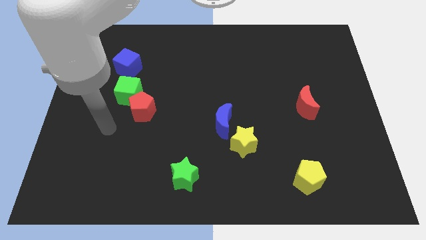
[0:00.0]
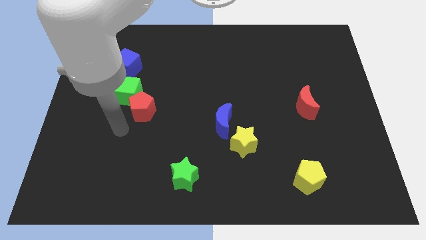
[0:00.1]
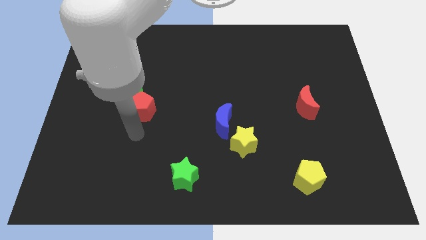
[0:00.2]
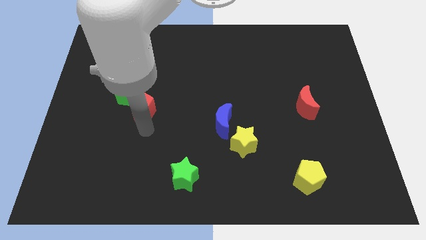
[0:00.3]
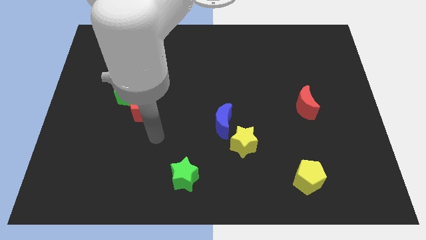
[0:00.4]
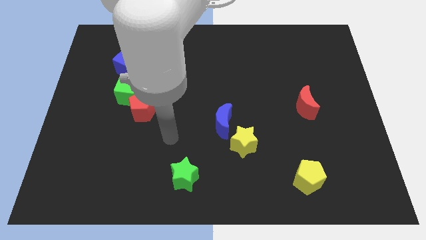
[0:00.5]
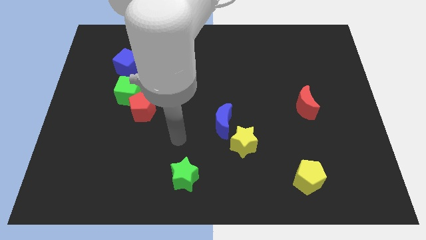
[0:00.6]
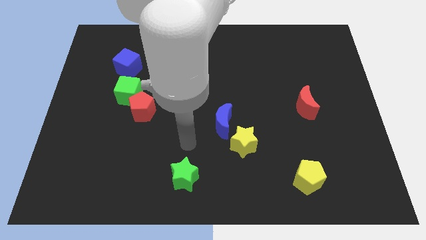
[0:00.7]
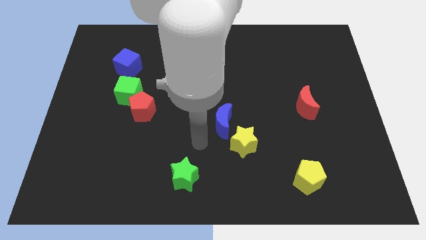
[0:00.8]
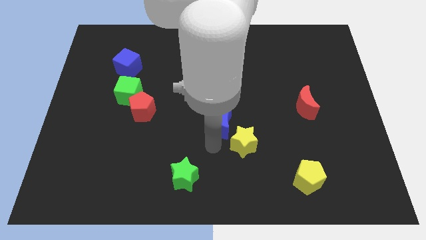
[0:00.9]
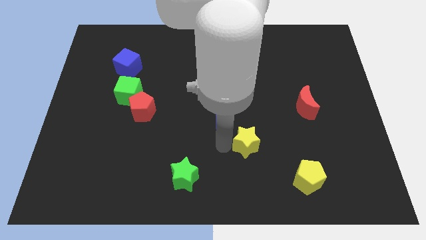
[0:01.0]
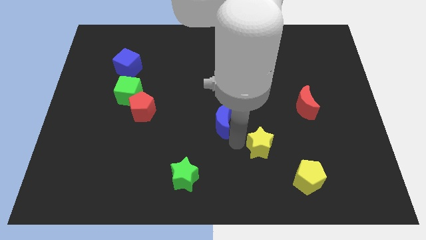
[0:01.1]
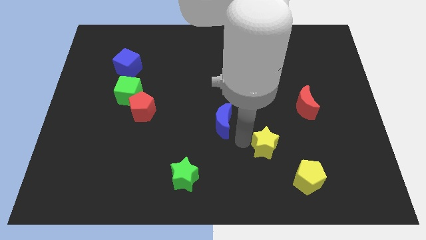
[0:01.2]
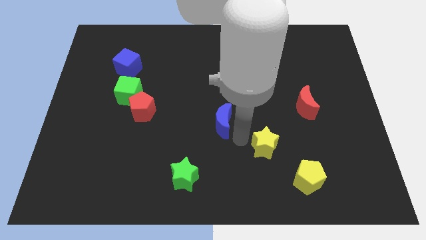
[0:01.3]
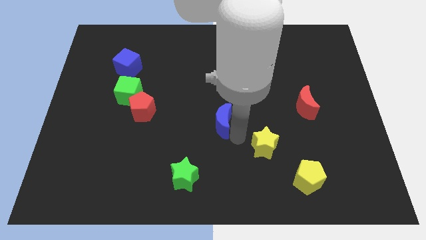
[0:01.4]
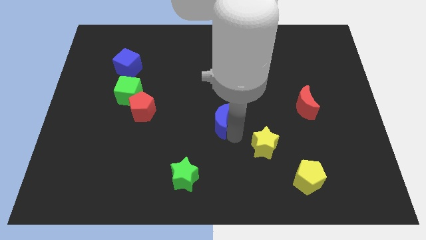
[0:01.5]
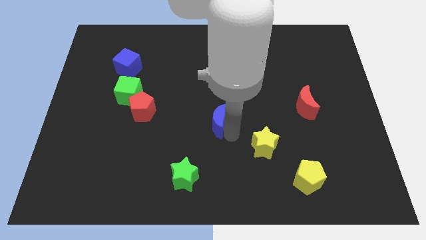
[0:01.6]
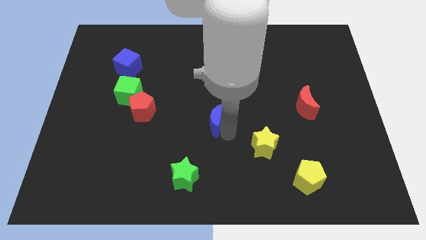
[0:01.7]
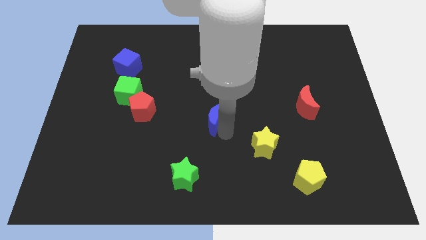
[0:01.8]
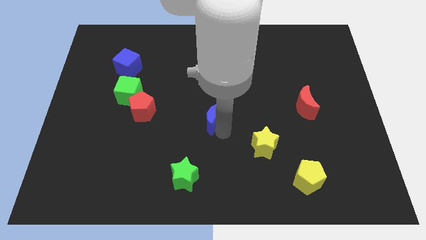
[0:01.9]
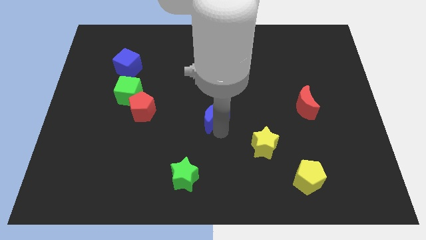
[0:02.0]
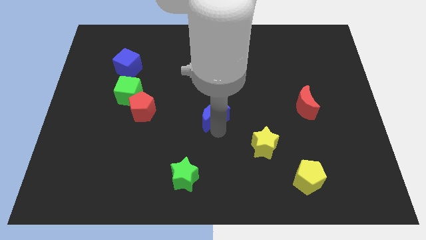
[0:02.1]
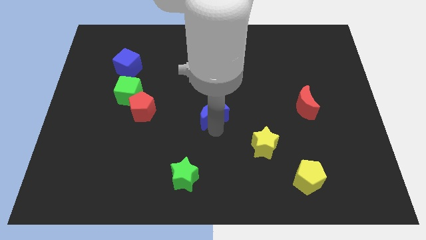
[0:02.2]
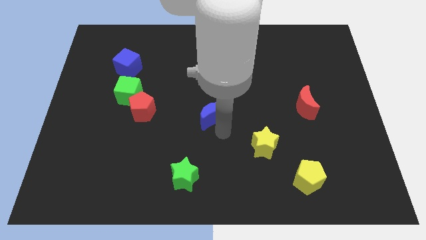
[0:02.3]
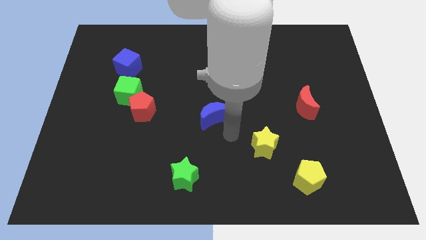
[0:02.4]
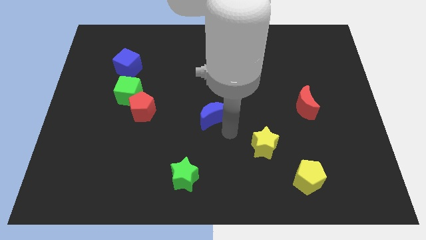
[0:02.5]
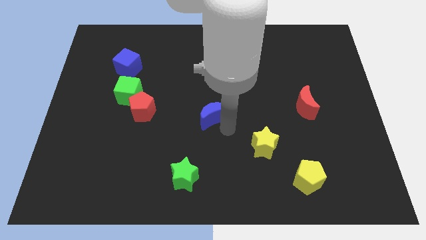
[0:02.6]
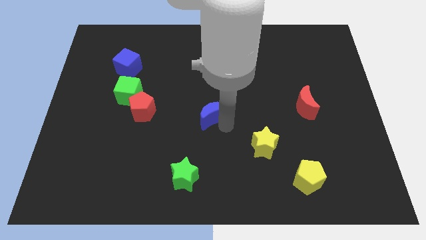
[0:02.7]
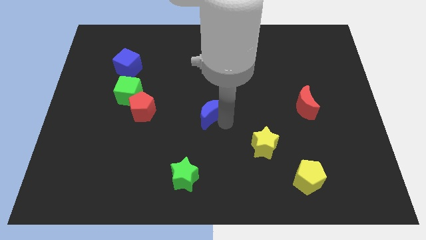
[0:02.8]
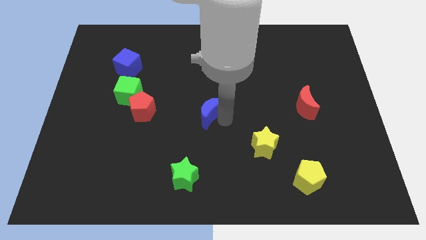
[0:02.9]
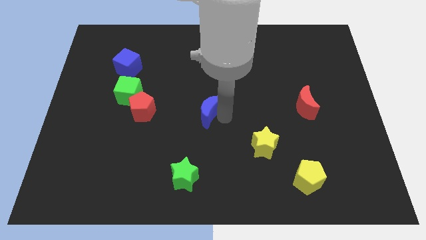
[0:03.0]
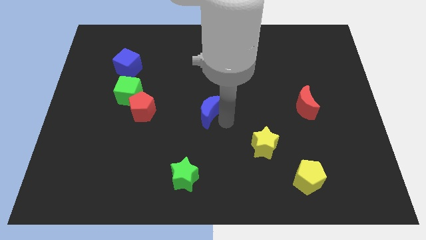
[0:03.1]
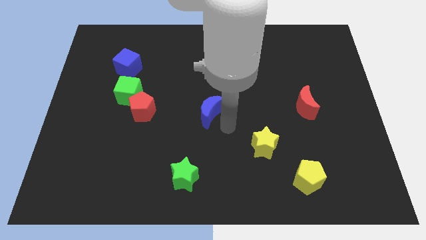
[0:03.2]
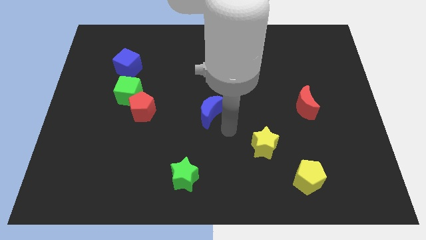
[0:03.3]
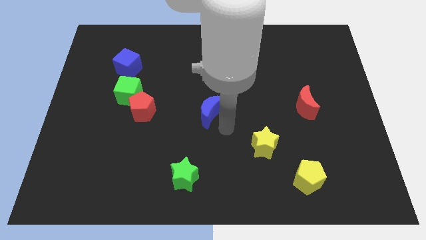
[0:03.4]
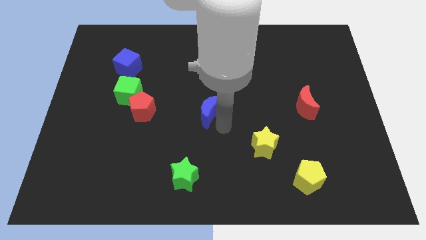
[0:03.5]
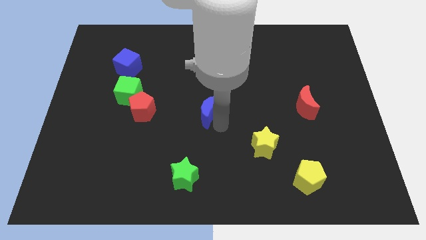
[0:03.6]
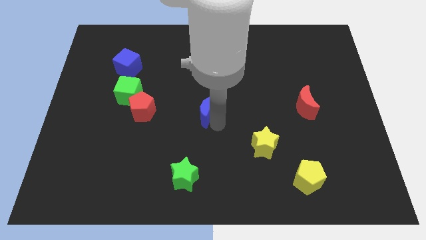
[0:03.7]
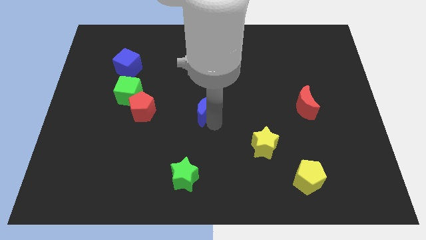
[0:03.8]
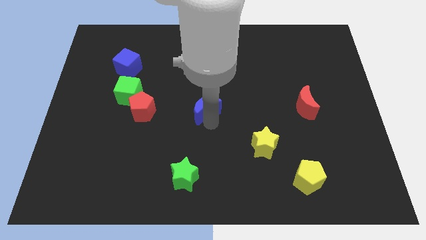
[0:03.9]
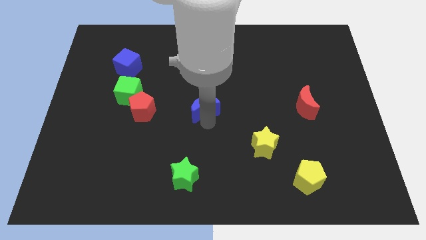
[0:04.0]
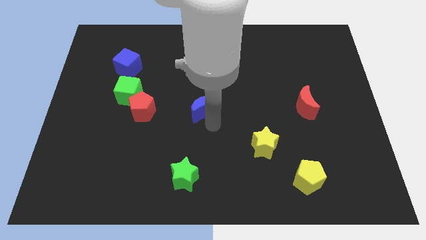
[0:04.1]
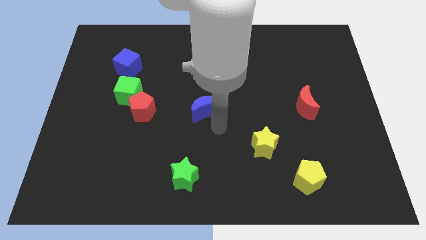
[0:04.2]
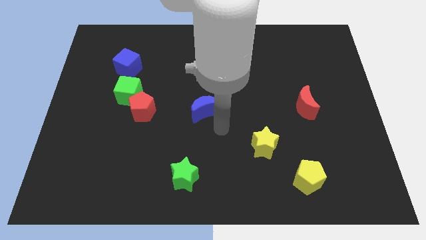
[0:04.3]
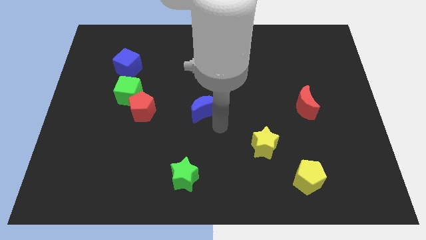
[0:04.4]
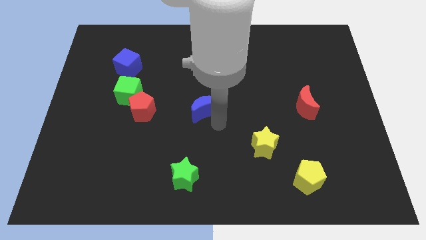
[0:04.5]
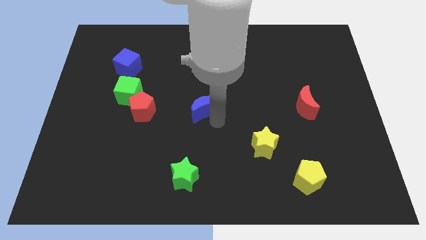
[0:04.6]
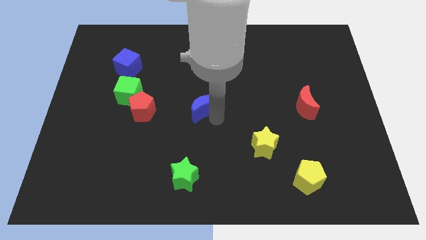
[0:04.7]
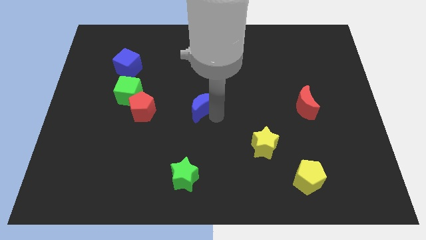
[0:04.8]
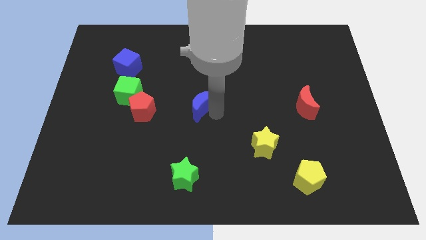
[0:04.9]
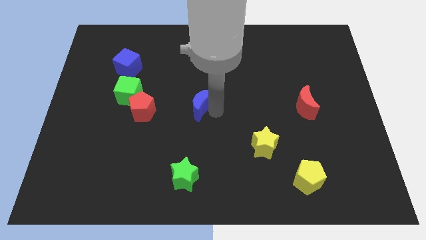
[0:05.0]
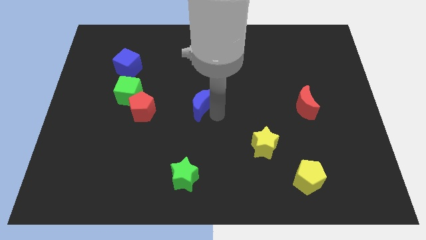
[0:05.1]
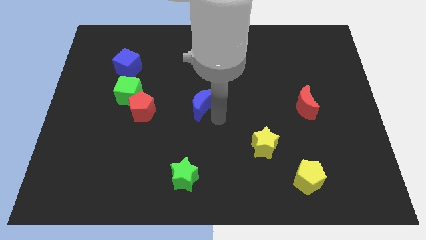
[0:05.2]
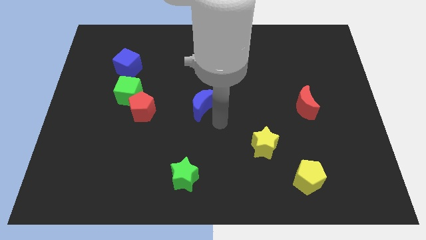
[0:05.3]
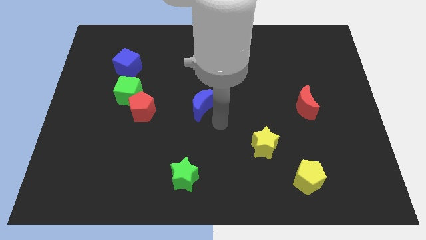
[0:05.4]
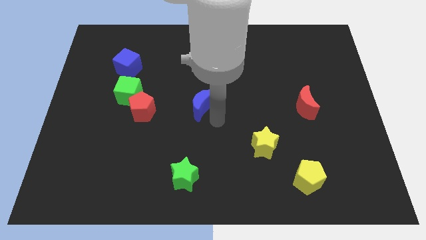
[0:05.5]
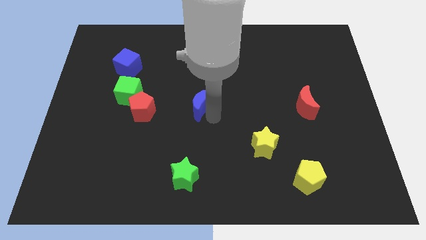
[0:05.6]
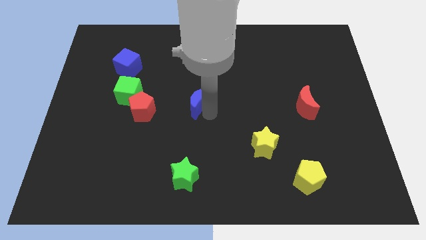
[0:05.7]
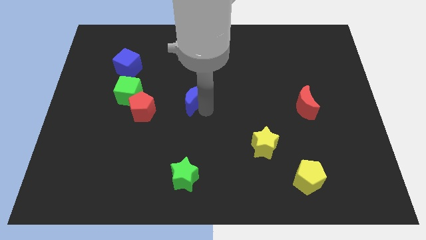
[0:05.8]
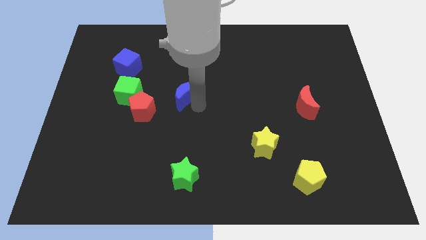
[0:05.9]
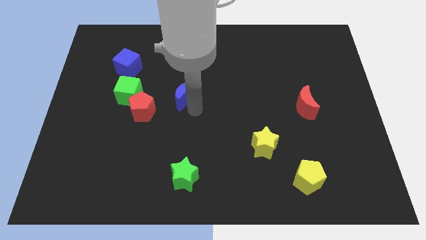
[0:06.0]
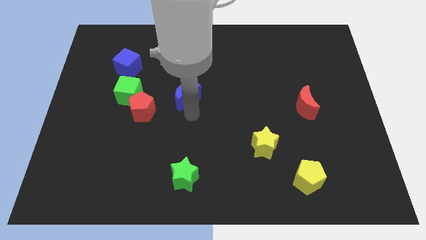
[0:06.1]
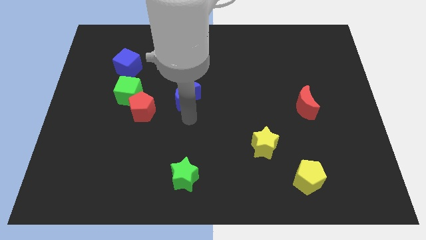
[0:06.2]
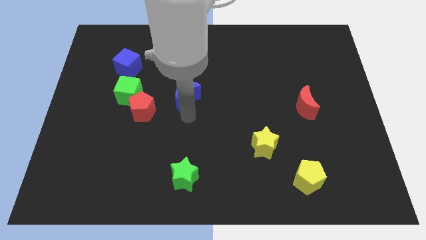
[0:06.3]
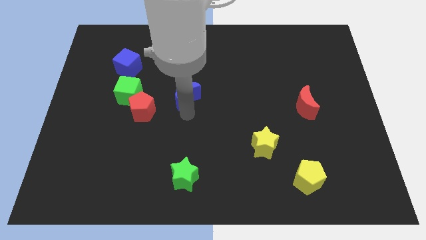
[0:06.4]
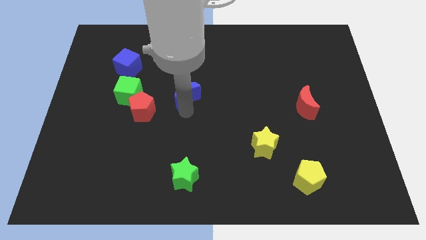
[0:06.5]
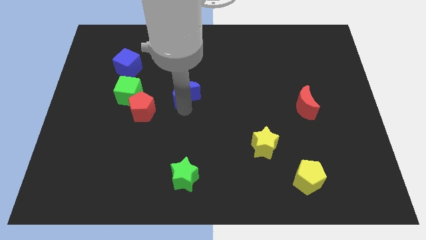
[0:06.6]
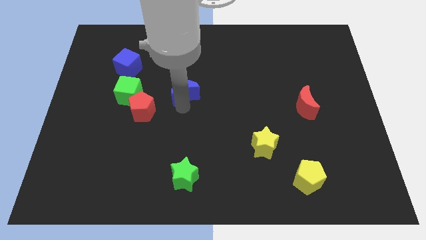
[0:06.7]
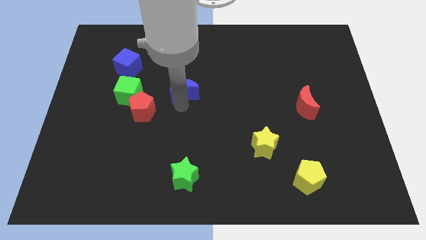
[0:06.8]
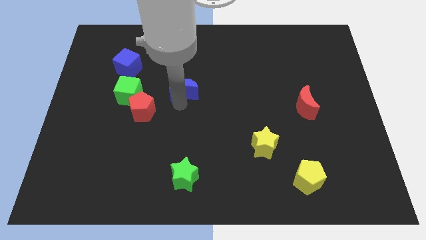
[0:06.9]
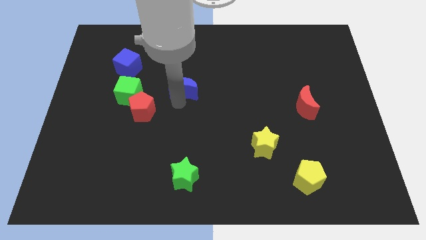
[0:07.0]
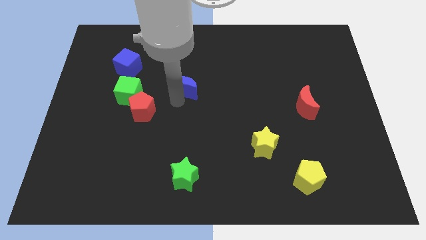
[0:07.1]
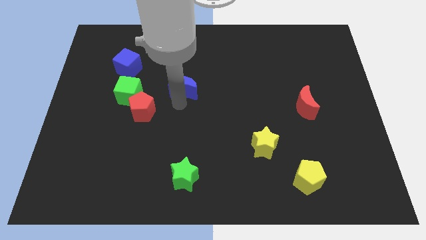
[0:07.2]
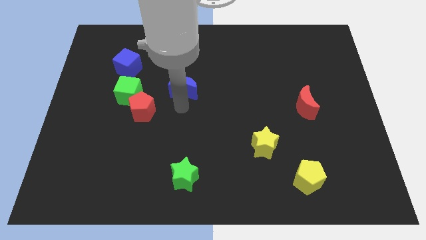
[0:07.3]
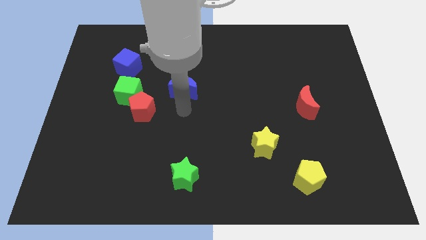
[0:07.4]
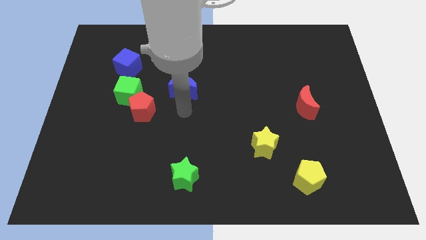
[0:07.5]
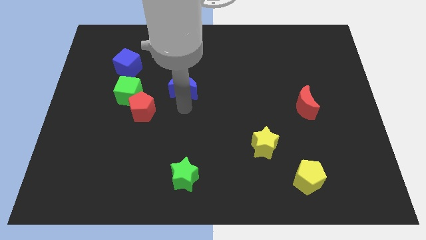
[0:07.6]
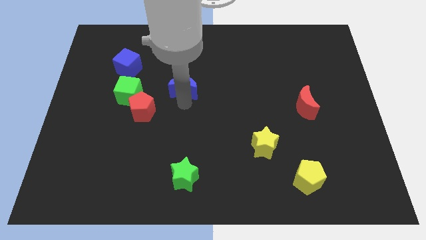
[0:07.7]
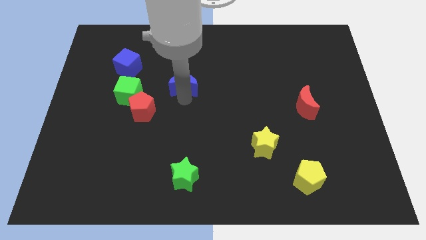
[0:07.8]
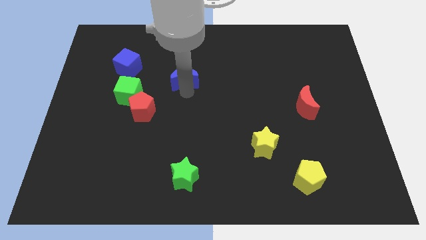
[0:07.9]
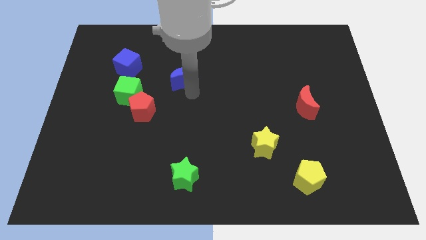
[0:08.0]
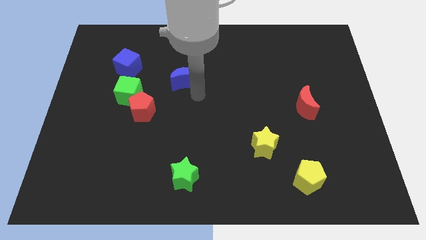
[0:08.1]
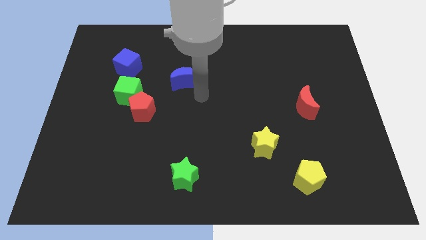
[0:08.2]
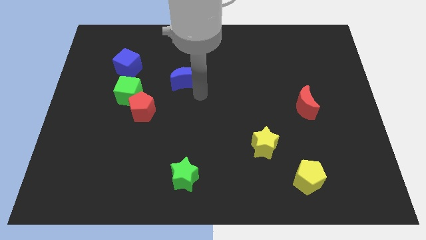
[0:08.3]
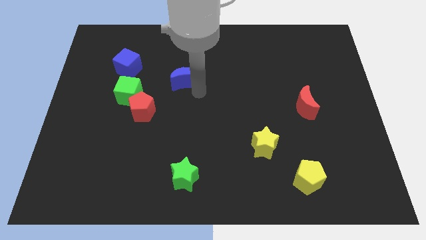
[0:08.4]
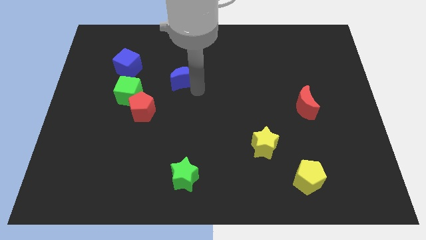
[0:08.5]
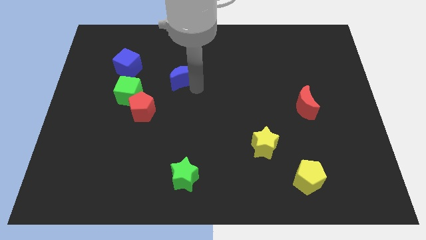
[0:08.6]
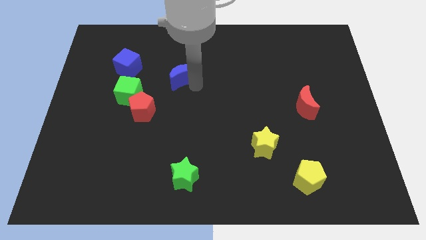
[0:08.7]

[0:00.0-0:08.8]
move the blue moon right of the blue cube
